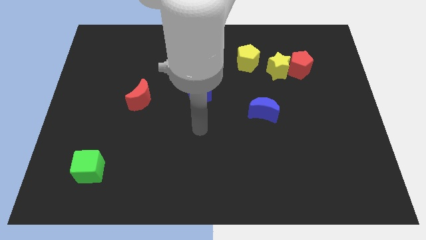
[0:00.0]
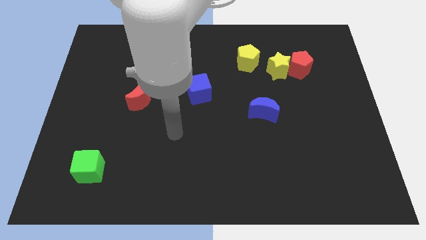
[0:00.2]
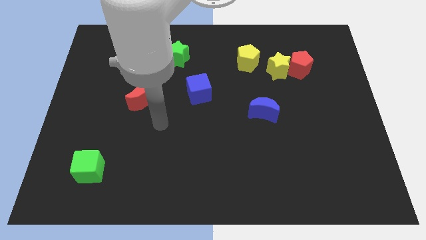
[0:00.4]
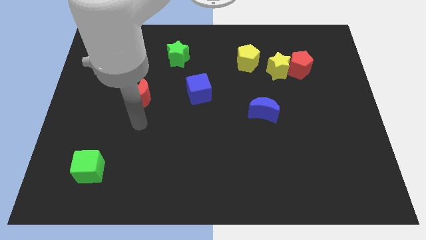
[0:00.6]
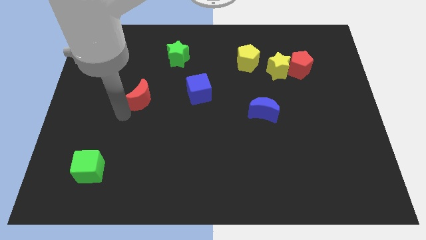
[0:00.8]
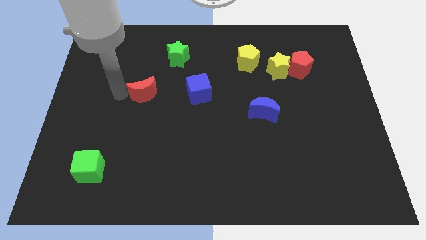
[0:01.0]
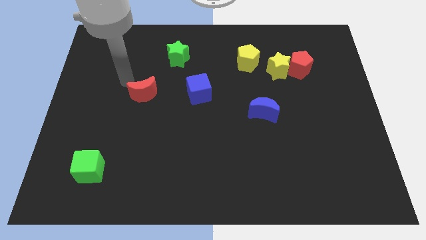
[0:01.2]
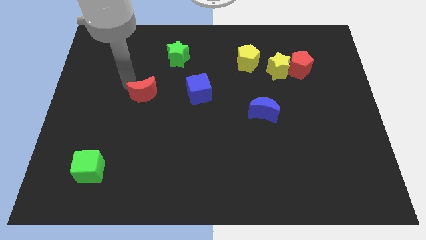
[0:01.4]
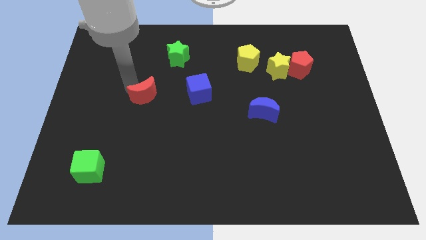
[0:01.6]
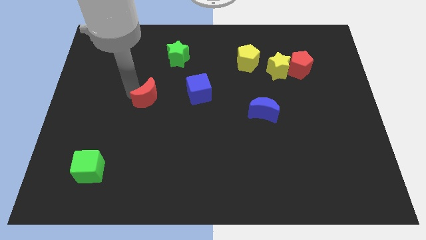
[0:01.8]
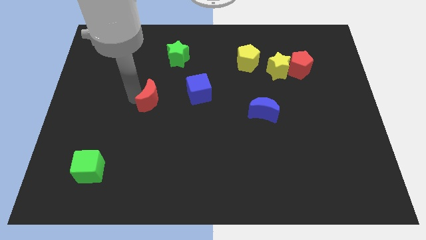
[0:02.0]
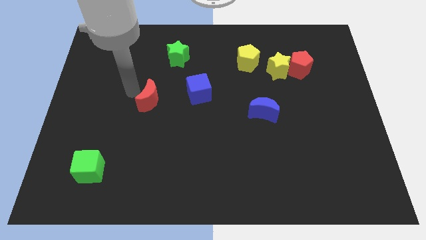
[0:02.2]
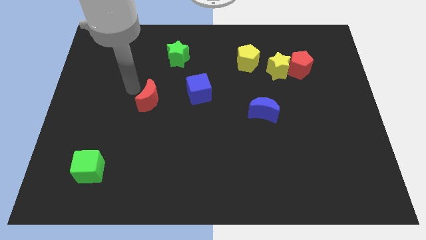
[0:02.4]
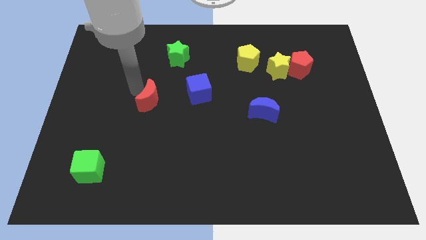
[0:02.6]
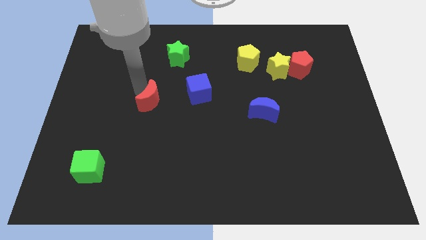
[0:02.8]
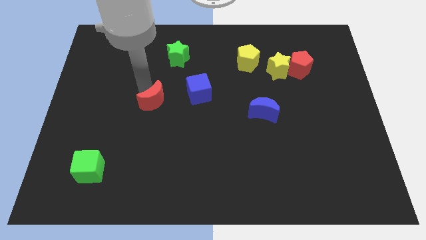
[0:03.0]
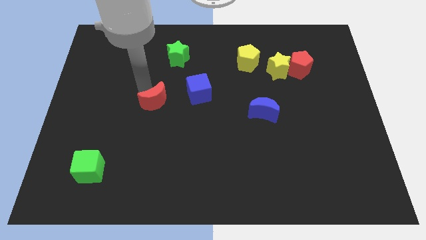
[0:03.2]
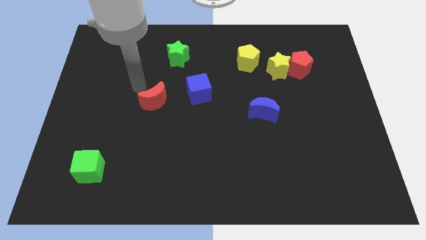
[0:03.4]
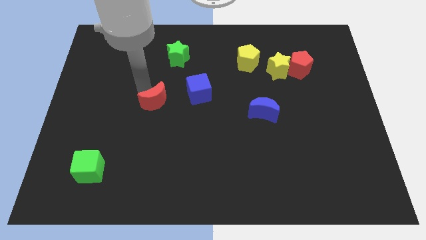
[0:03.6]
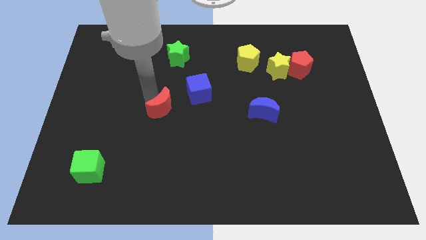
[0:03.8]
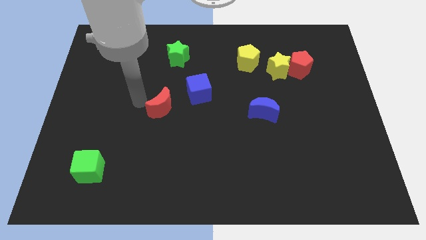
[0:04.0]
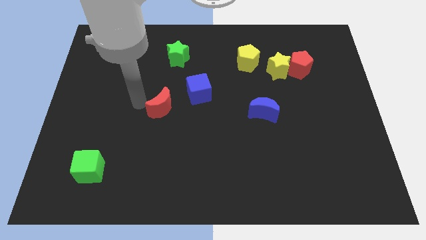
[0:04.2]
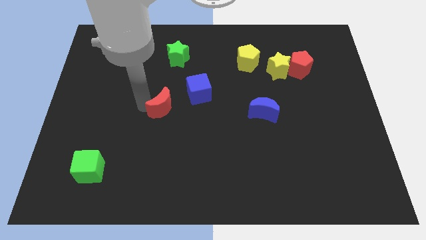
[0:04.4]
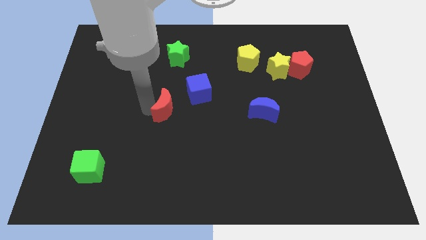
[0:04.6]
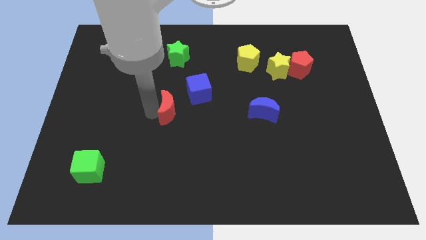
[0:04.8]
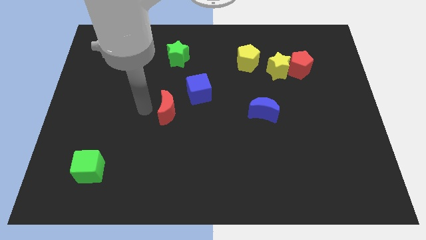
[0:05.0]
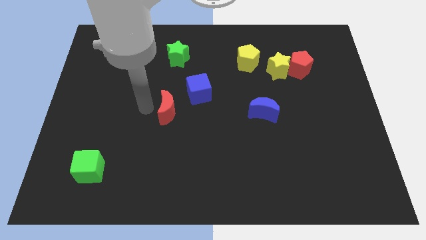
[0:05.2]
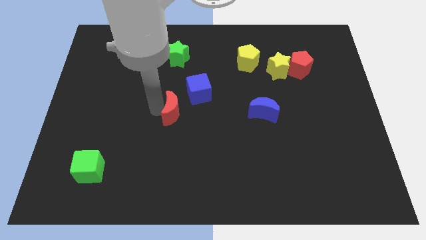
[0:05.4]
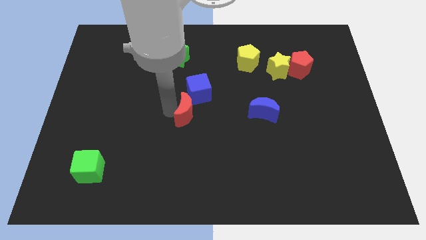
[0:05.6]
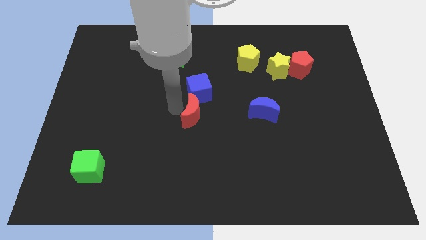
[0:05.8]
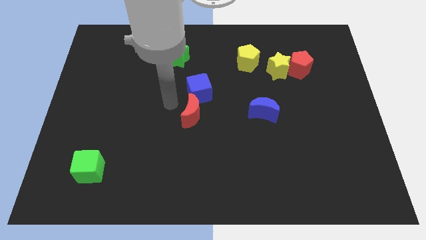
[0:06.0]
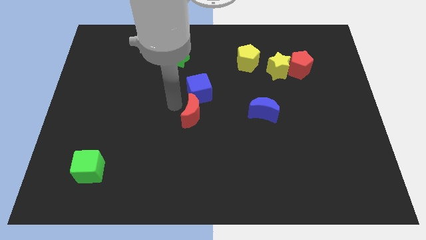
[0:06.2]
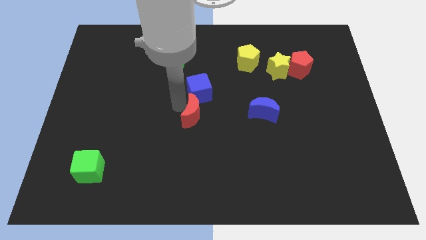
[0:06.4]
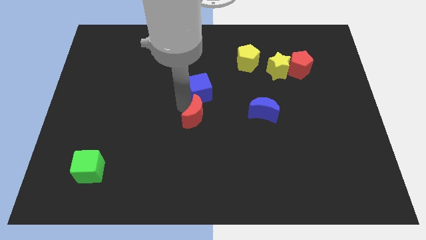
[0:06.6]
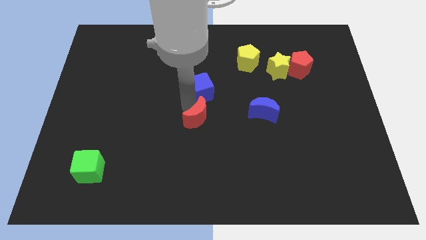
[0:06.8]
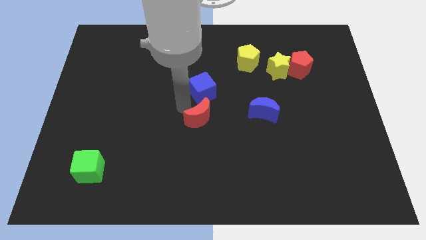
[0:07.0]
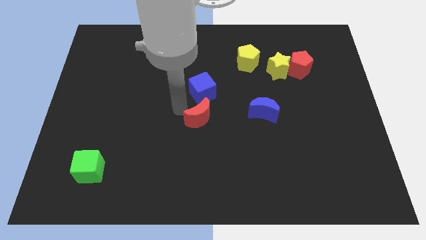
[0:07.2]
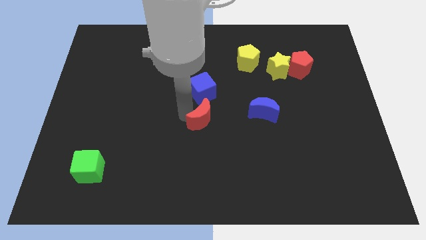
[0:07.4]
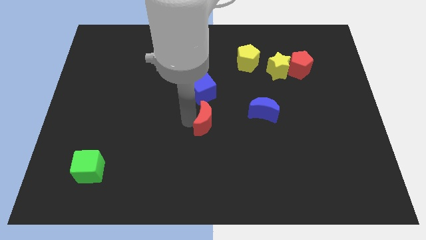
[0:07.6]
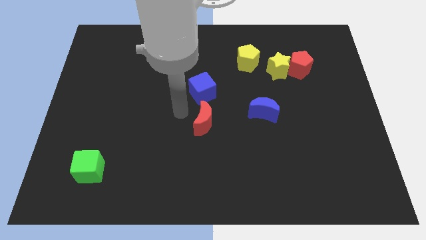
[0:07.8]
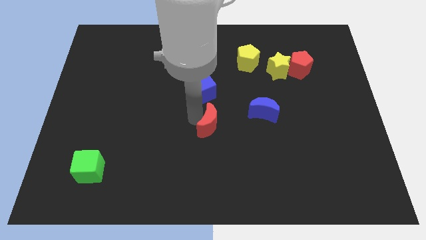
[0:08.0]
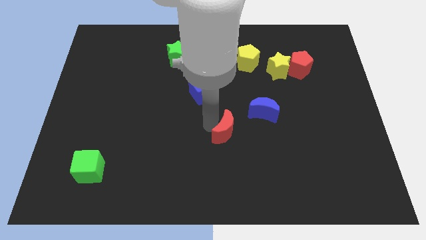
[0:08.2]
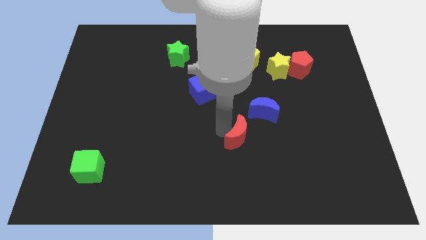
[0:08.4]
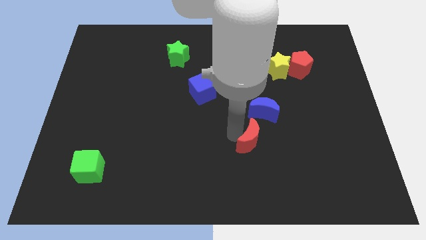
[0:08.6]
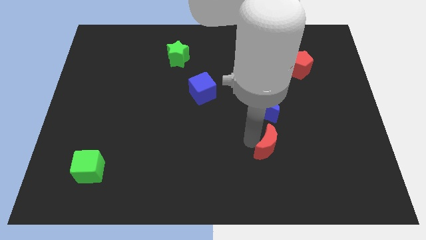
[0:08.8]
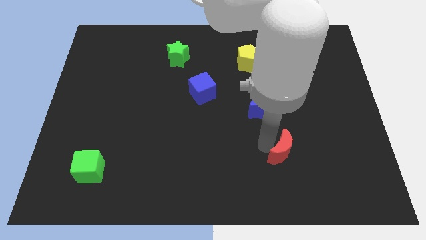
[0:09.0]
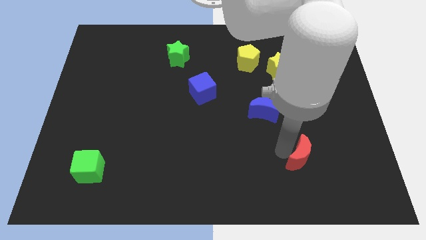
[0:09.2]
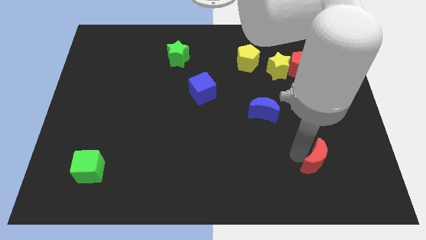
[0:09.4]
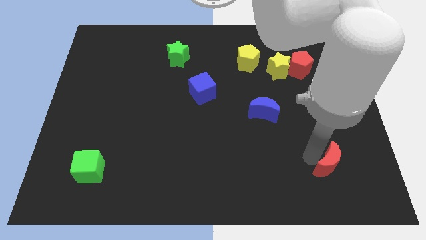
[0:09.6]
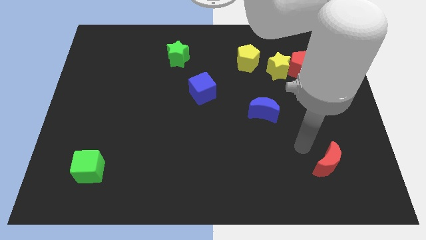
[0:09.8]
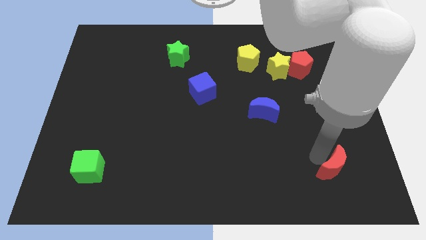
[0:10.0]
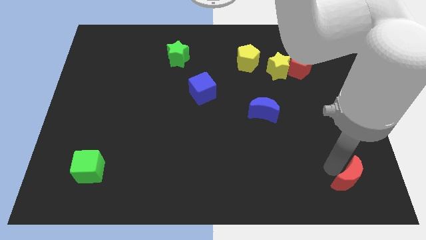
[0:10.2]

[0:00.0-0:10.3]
put the red moon to the bottom right corner

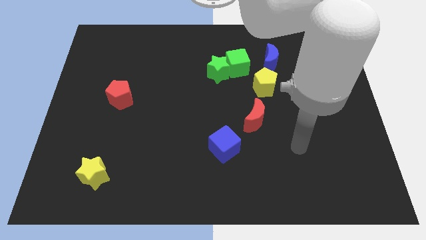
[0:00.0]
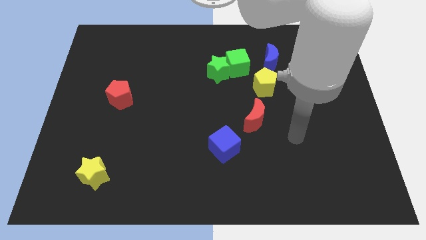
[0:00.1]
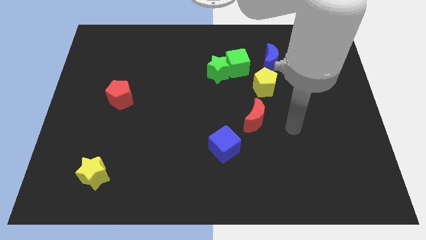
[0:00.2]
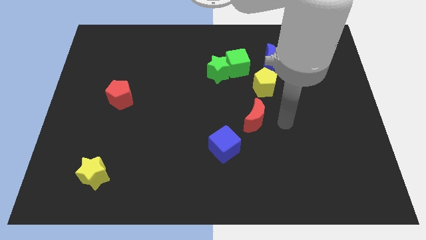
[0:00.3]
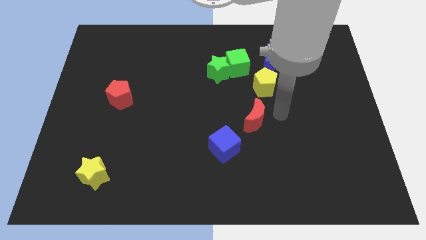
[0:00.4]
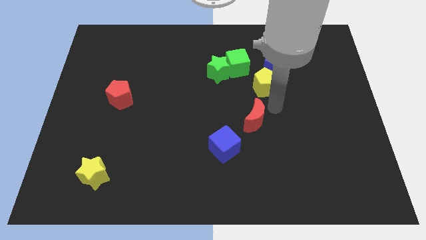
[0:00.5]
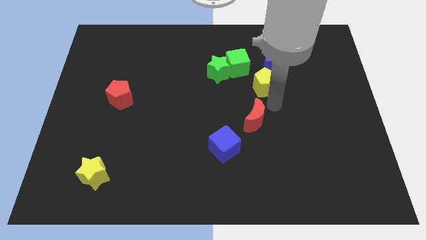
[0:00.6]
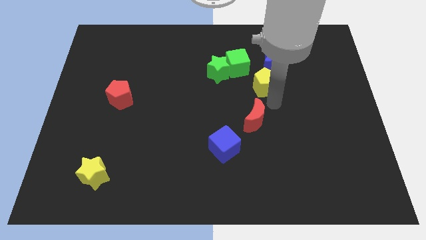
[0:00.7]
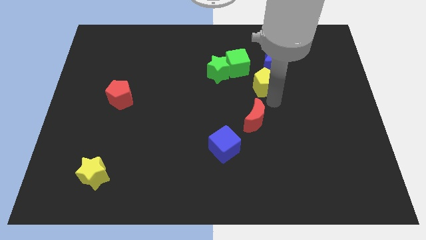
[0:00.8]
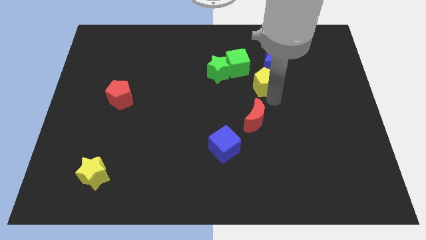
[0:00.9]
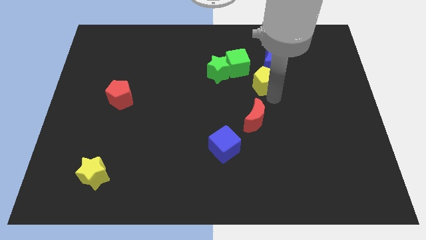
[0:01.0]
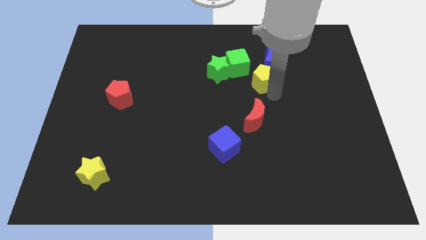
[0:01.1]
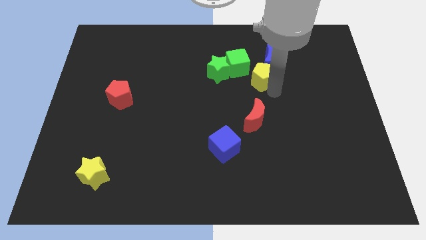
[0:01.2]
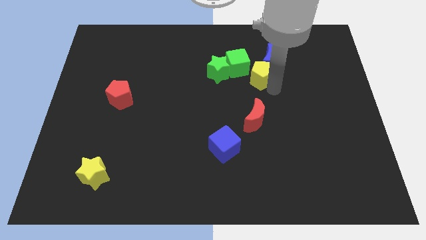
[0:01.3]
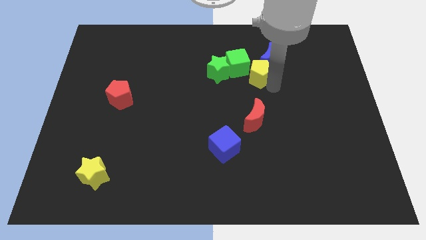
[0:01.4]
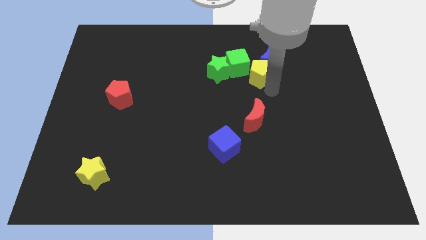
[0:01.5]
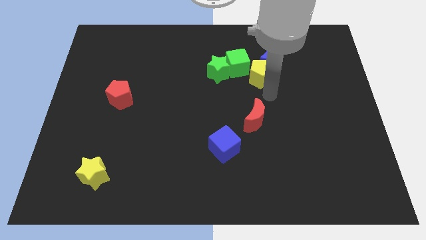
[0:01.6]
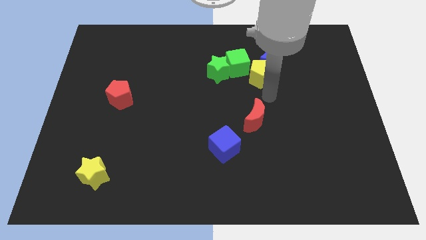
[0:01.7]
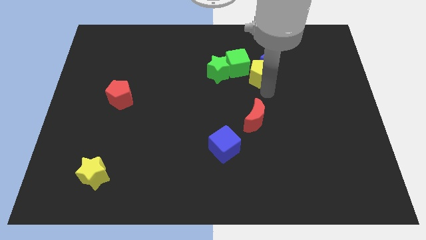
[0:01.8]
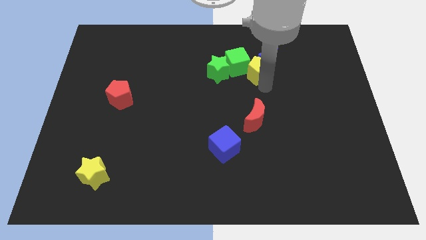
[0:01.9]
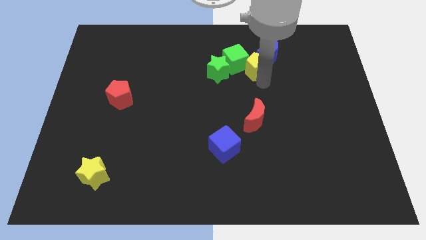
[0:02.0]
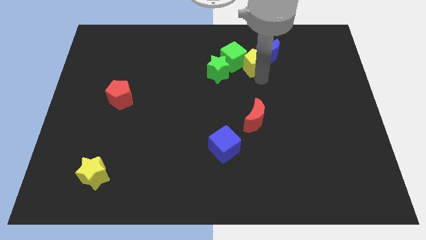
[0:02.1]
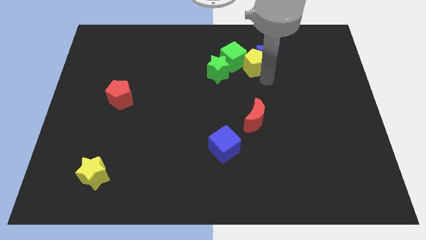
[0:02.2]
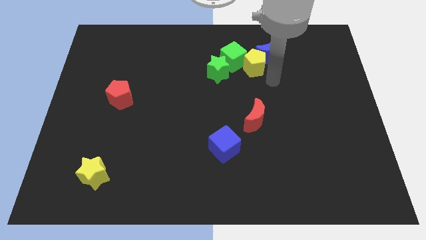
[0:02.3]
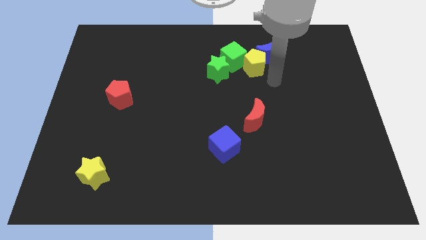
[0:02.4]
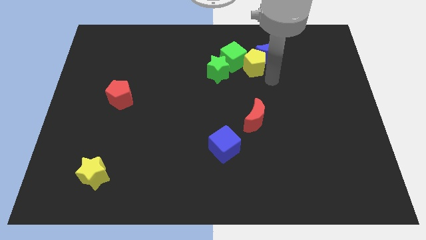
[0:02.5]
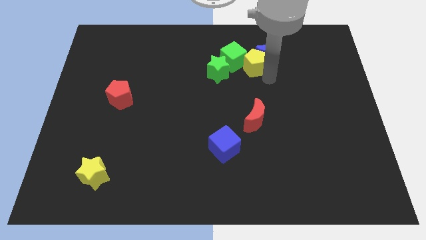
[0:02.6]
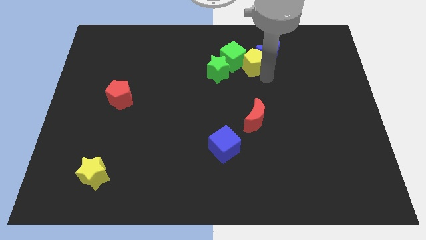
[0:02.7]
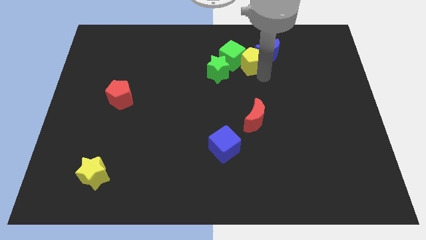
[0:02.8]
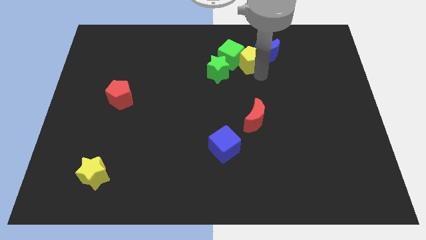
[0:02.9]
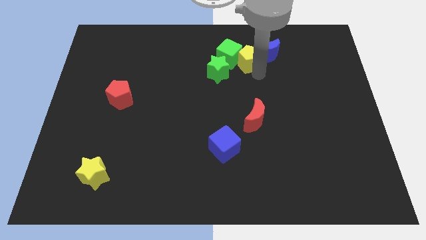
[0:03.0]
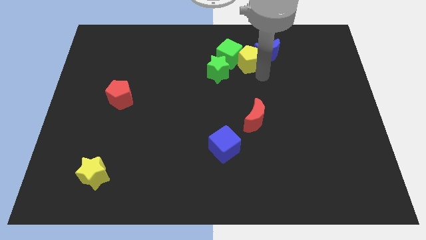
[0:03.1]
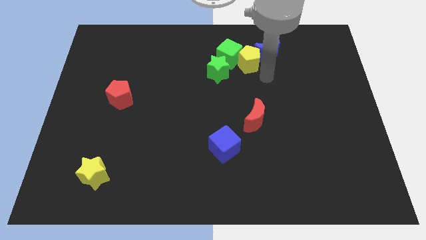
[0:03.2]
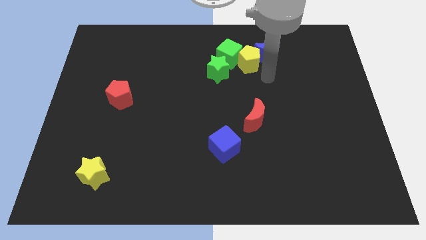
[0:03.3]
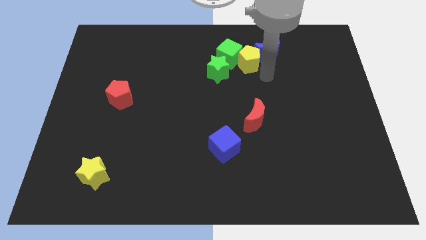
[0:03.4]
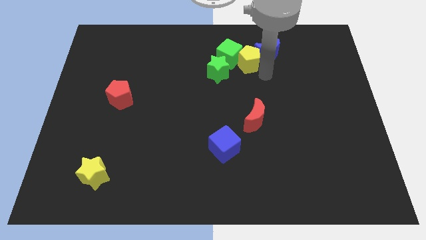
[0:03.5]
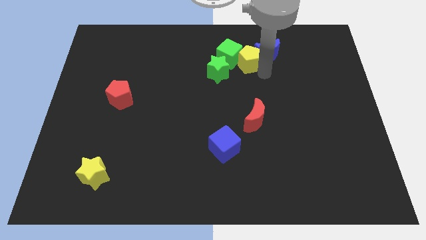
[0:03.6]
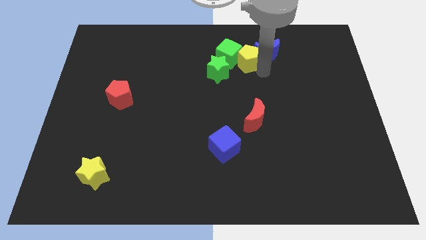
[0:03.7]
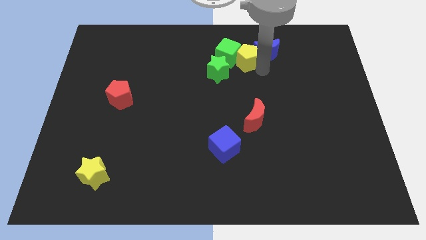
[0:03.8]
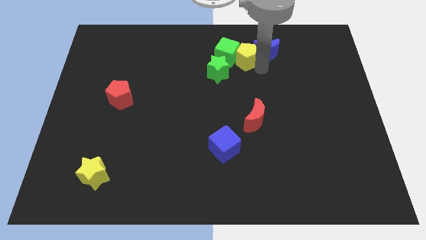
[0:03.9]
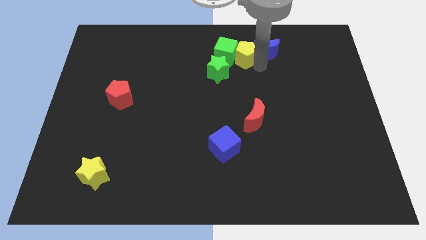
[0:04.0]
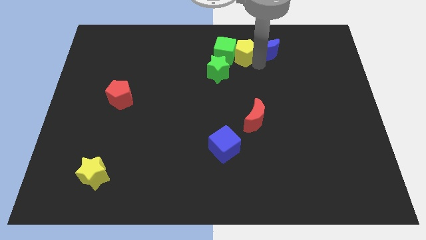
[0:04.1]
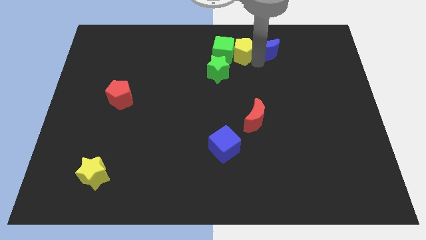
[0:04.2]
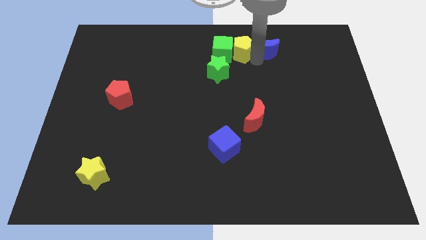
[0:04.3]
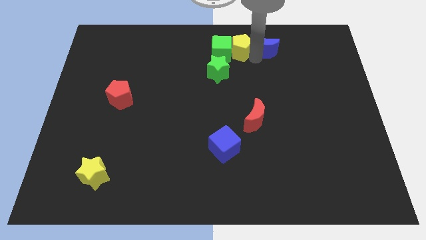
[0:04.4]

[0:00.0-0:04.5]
move the yellow pentagon to the towards your base
